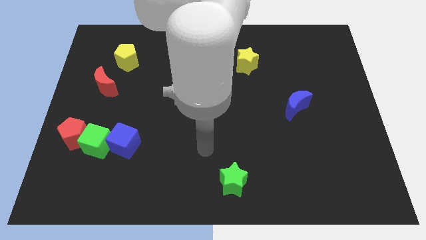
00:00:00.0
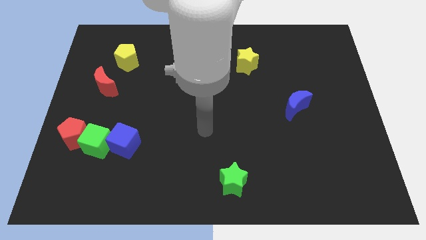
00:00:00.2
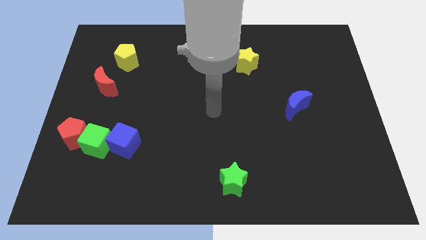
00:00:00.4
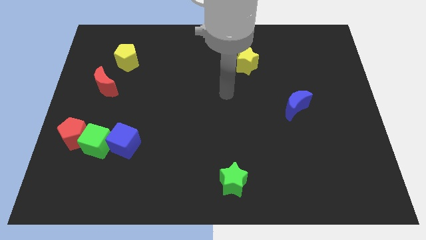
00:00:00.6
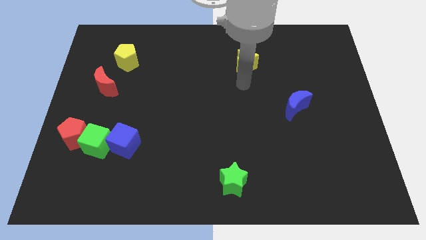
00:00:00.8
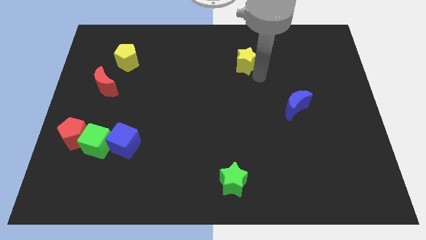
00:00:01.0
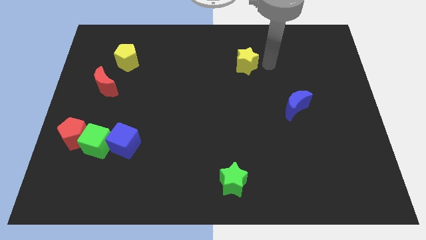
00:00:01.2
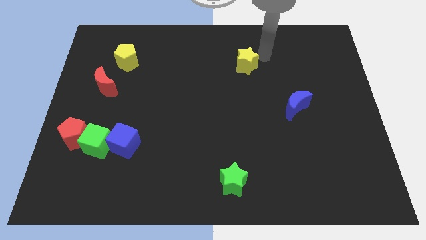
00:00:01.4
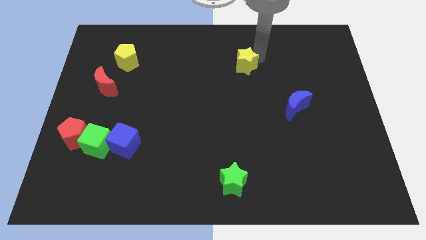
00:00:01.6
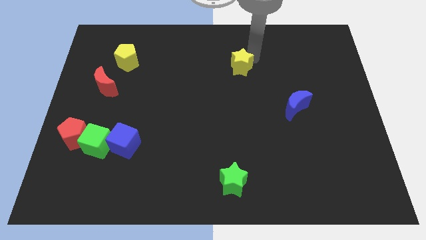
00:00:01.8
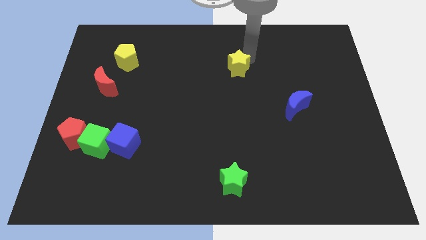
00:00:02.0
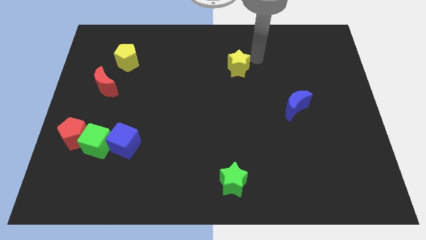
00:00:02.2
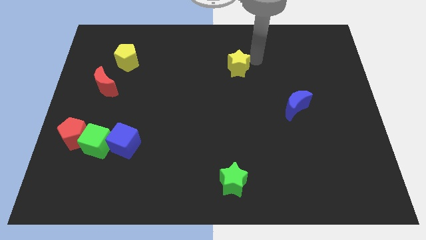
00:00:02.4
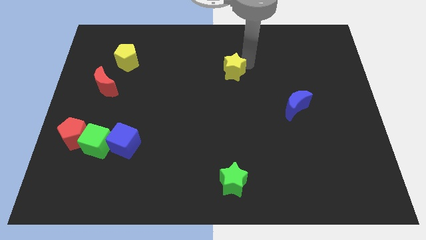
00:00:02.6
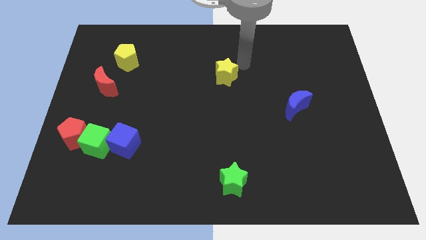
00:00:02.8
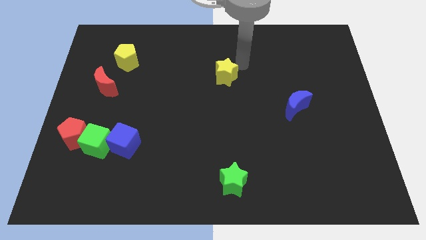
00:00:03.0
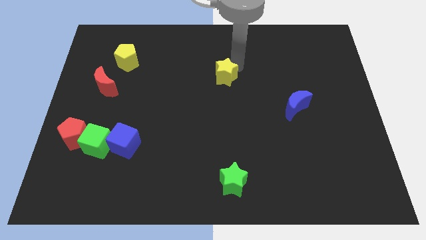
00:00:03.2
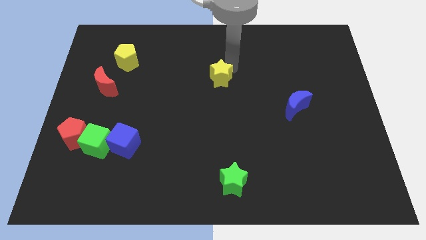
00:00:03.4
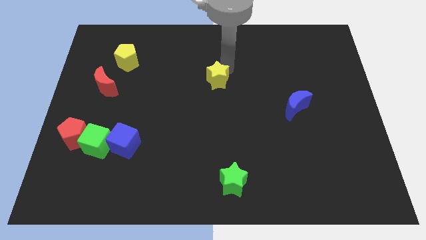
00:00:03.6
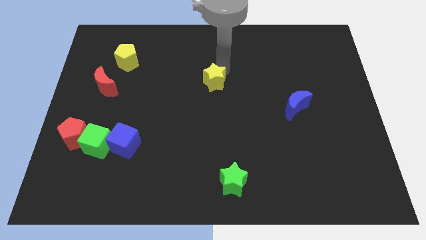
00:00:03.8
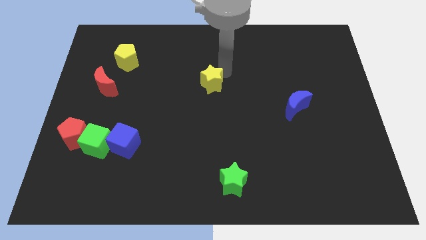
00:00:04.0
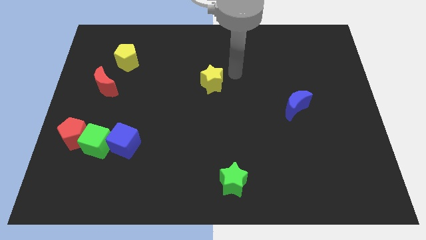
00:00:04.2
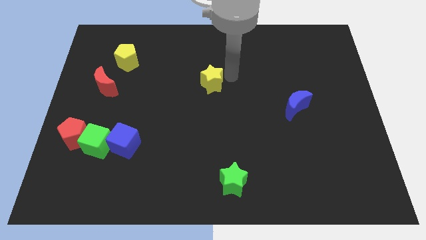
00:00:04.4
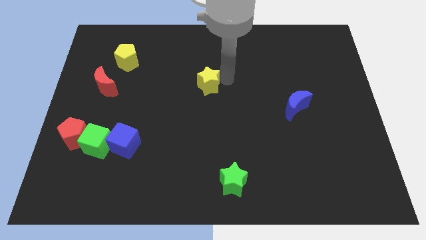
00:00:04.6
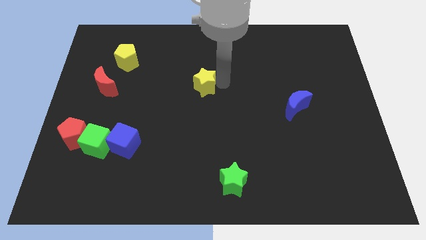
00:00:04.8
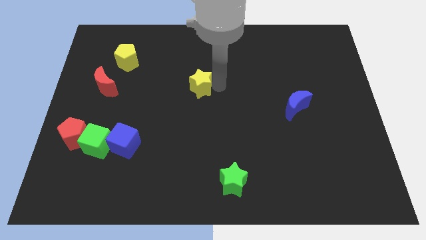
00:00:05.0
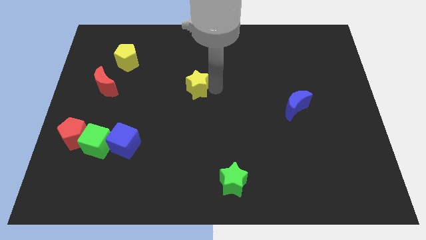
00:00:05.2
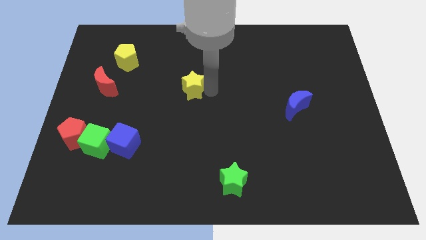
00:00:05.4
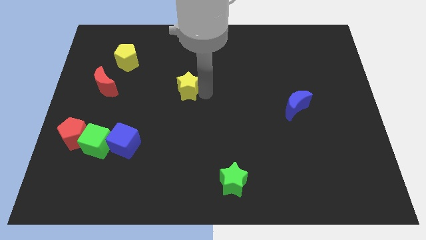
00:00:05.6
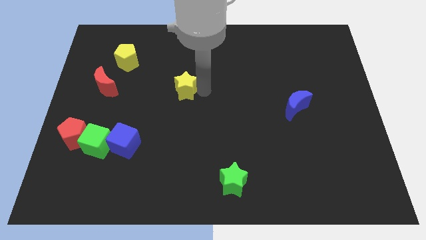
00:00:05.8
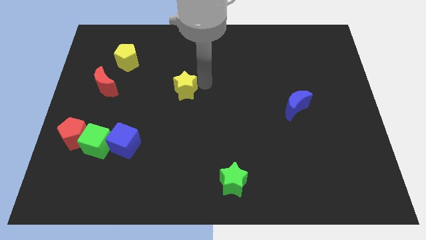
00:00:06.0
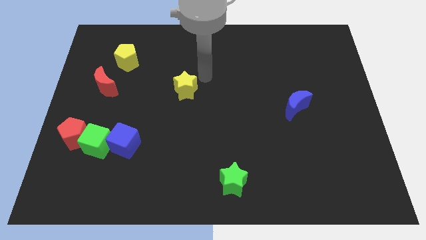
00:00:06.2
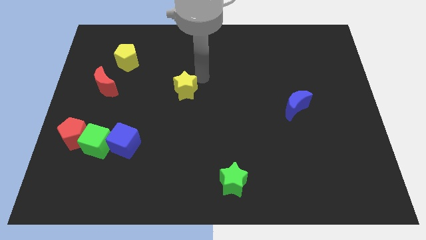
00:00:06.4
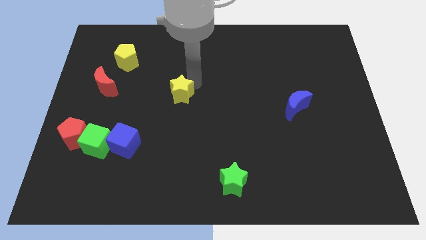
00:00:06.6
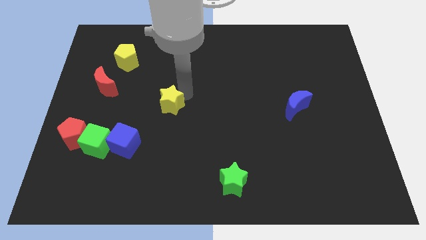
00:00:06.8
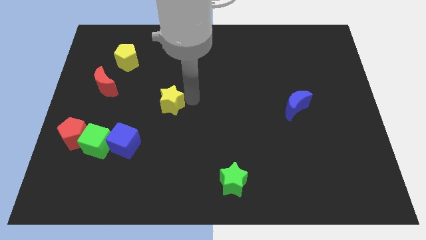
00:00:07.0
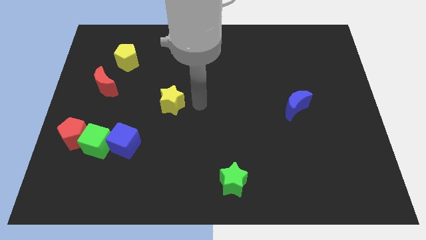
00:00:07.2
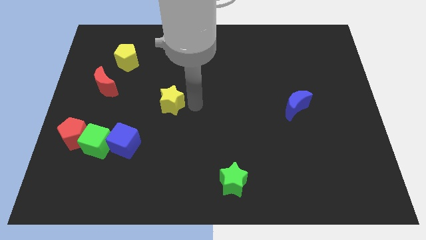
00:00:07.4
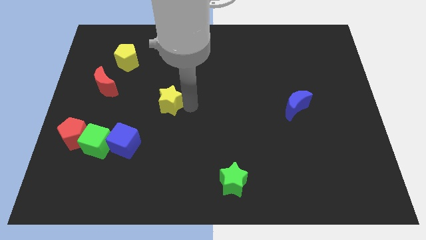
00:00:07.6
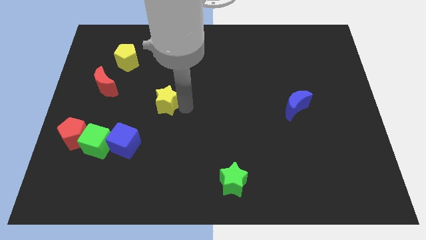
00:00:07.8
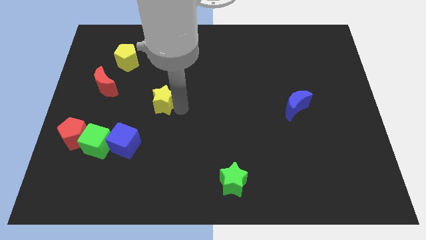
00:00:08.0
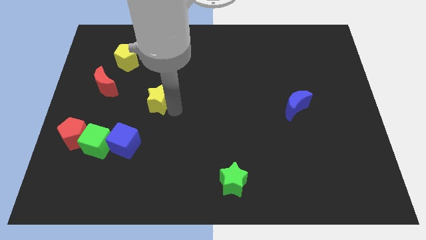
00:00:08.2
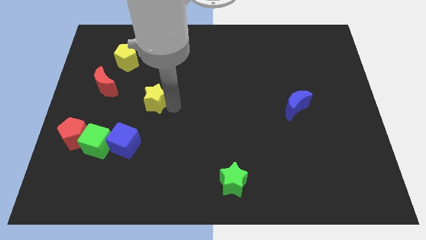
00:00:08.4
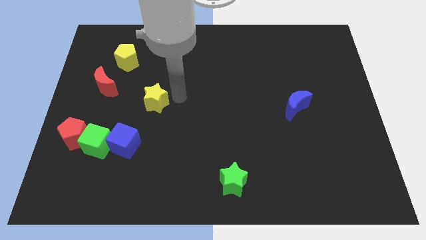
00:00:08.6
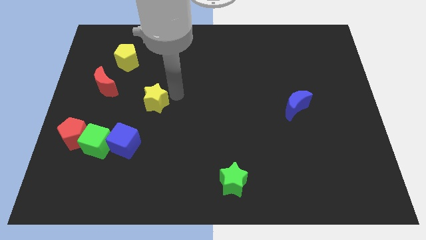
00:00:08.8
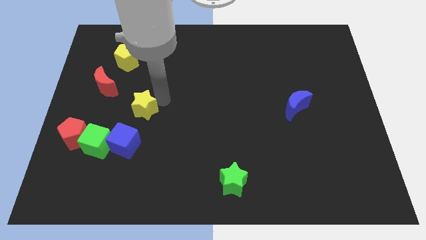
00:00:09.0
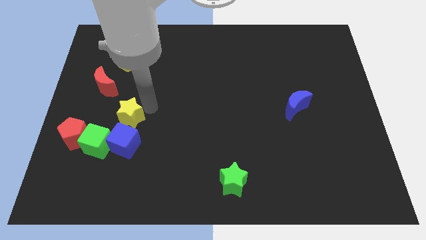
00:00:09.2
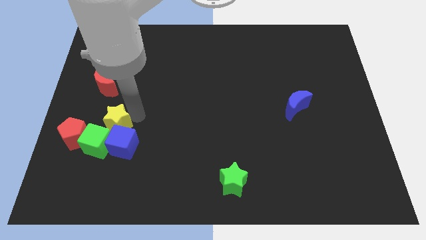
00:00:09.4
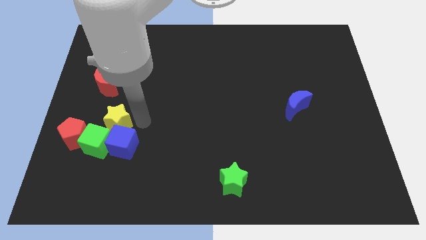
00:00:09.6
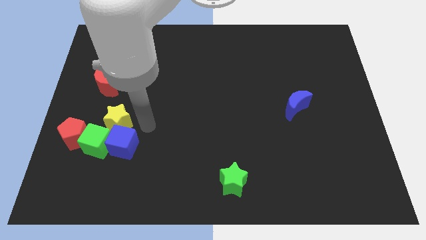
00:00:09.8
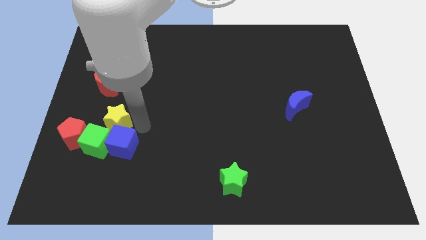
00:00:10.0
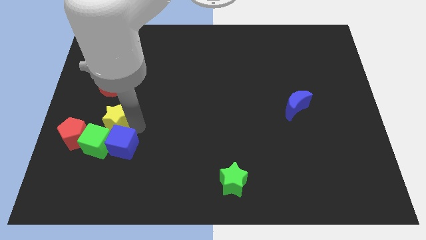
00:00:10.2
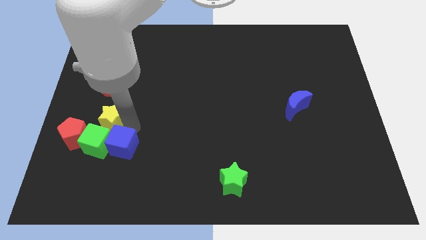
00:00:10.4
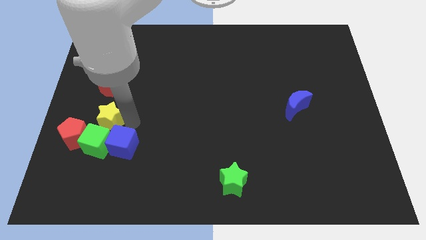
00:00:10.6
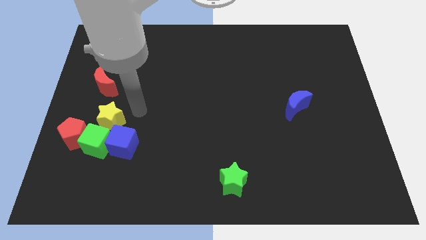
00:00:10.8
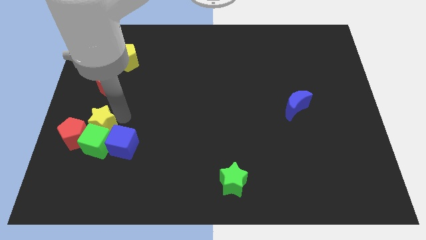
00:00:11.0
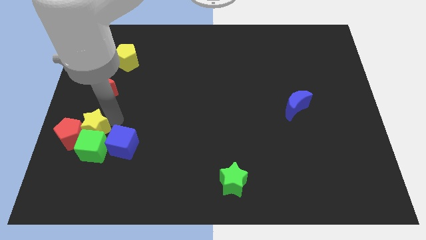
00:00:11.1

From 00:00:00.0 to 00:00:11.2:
put the yellow star close to the red pentagon

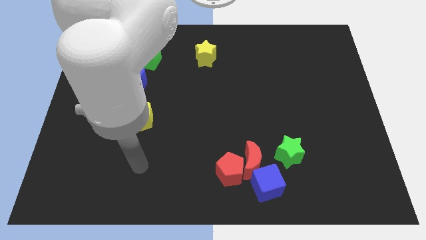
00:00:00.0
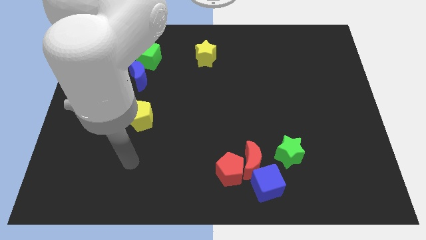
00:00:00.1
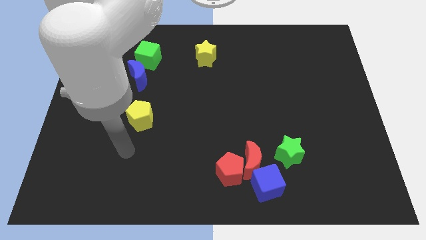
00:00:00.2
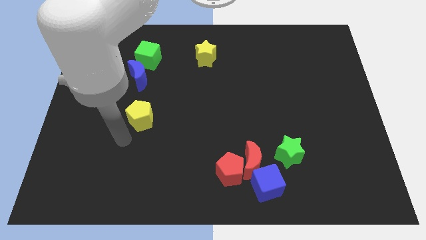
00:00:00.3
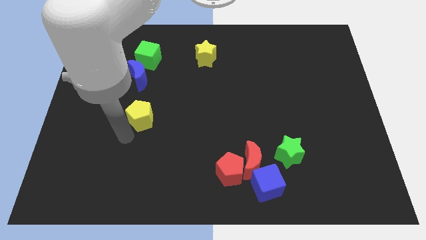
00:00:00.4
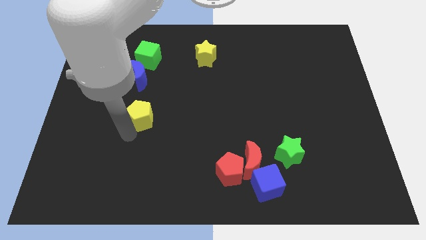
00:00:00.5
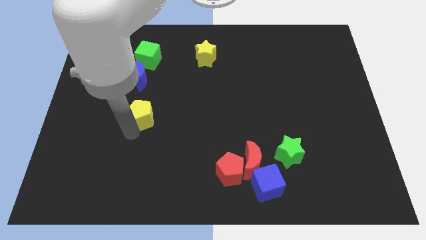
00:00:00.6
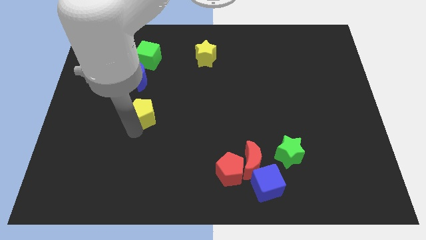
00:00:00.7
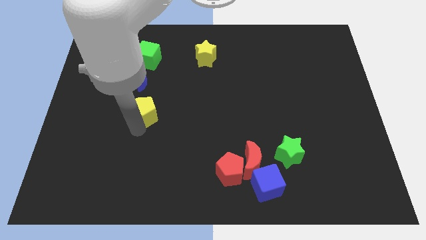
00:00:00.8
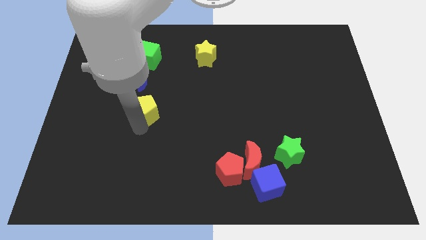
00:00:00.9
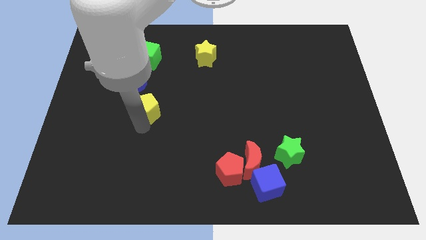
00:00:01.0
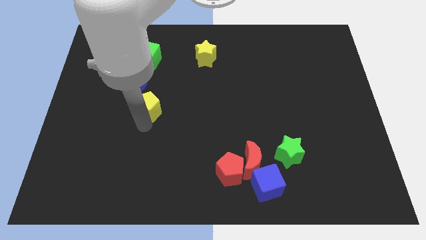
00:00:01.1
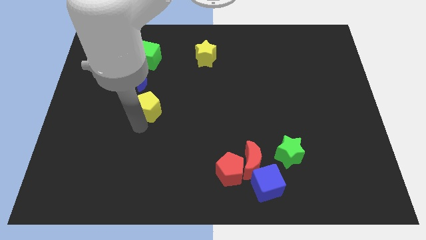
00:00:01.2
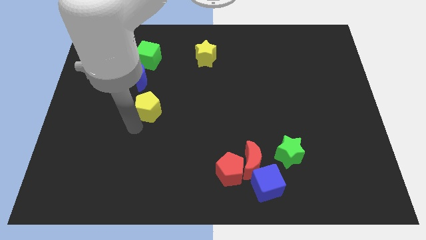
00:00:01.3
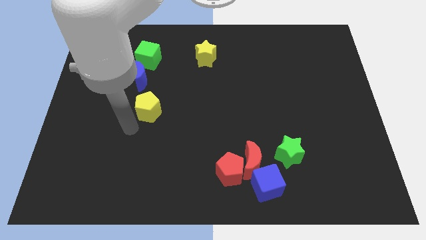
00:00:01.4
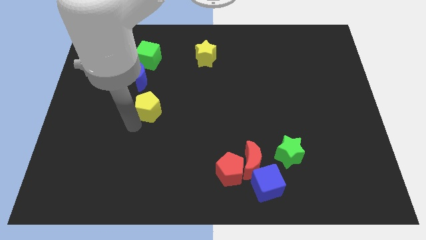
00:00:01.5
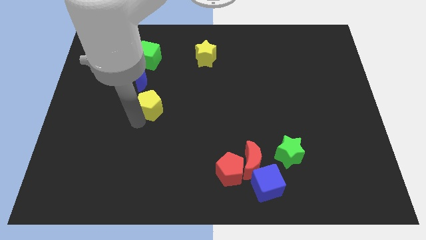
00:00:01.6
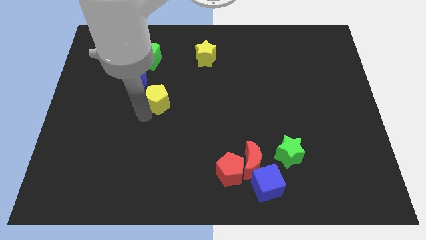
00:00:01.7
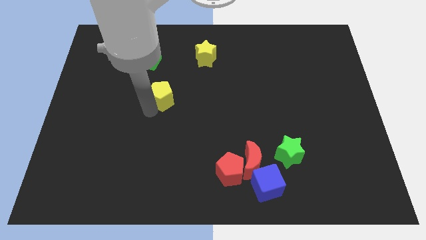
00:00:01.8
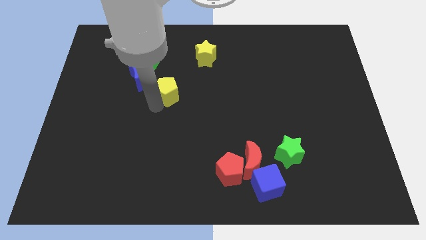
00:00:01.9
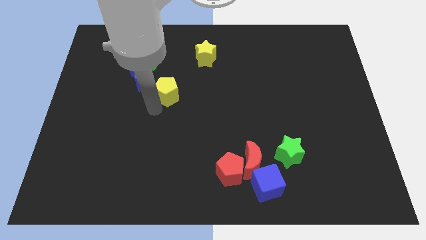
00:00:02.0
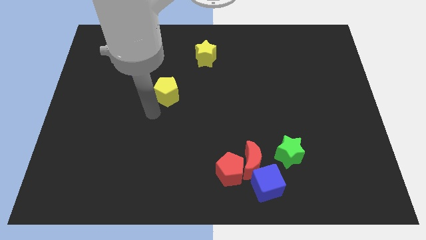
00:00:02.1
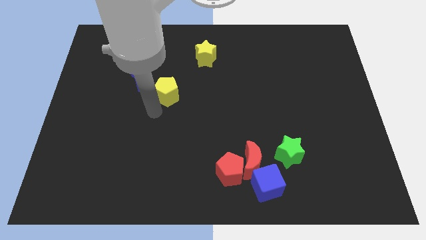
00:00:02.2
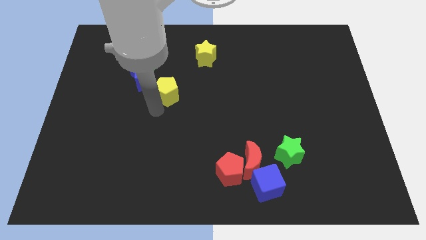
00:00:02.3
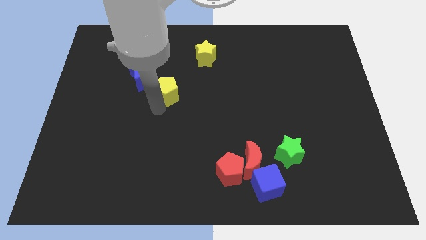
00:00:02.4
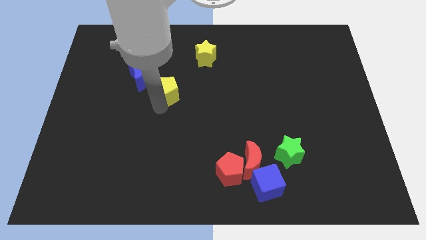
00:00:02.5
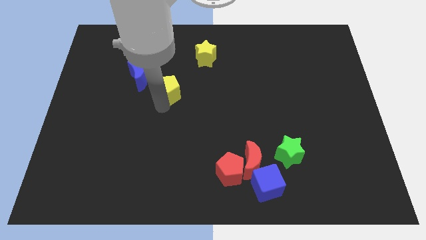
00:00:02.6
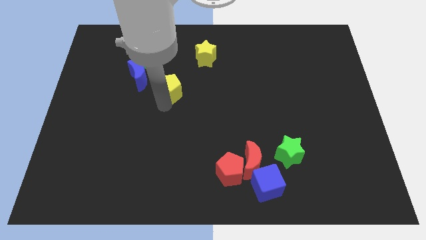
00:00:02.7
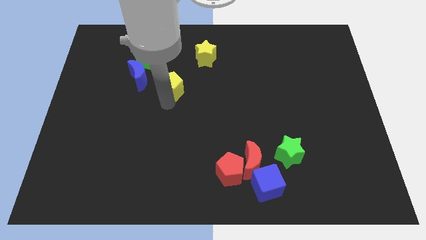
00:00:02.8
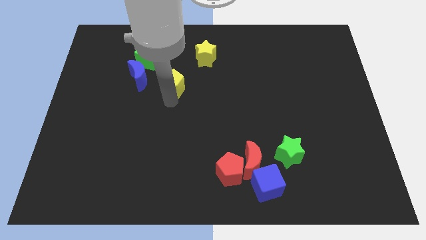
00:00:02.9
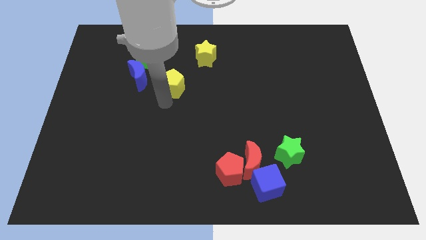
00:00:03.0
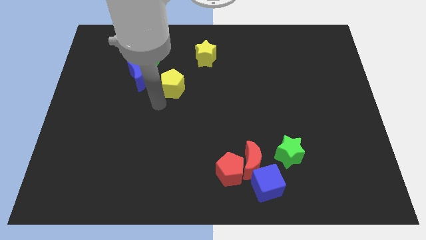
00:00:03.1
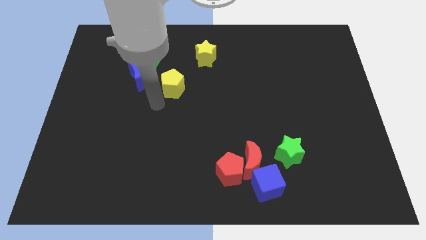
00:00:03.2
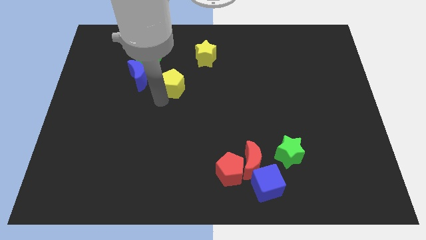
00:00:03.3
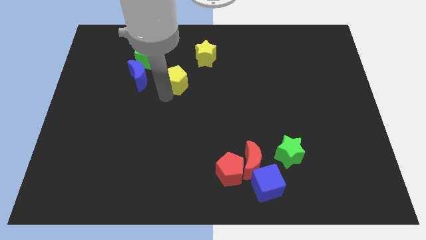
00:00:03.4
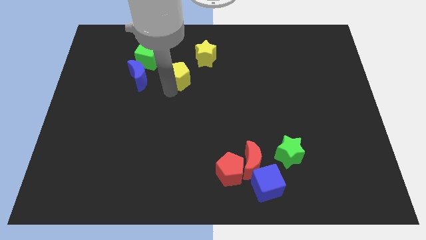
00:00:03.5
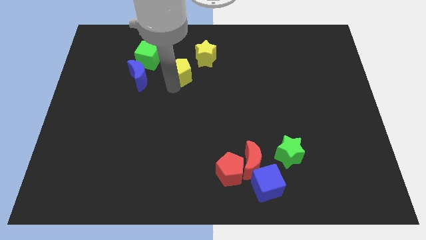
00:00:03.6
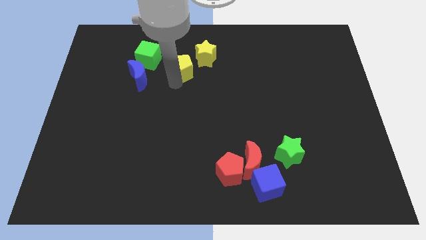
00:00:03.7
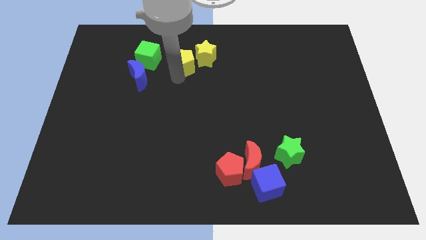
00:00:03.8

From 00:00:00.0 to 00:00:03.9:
slide the yellow pentagon close to the yellow star
